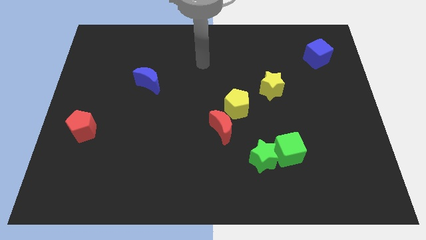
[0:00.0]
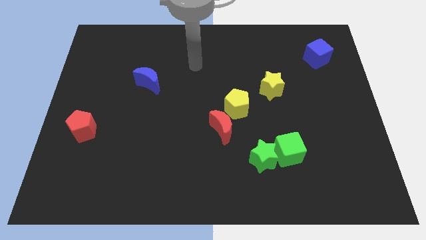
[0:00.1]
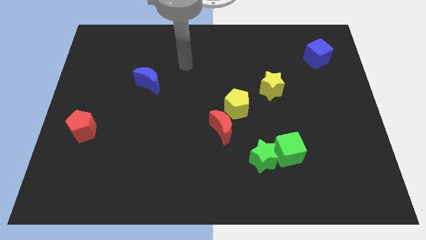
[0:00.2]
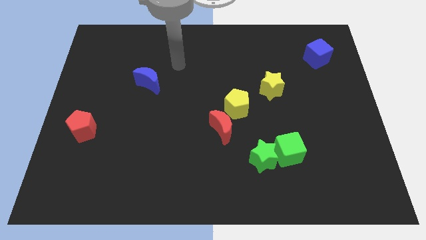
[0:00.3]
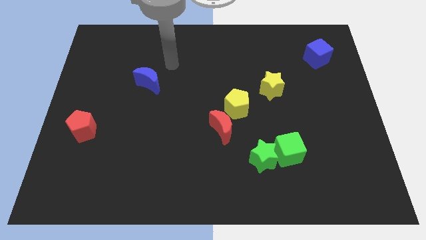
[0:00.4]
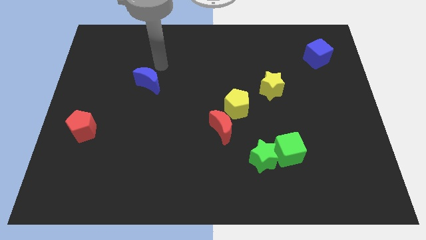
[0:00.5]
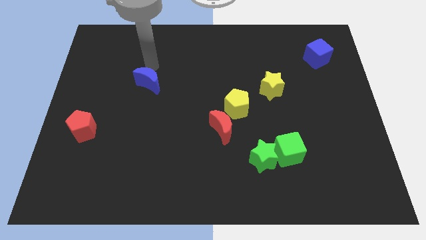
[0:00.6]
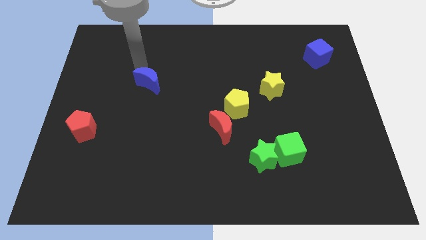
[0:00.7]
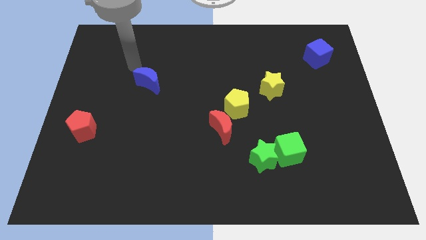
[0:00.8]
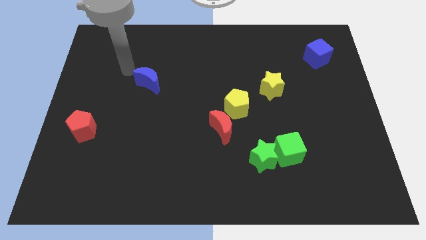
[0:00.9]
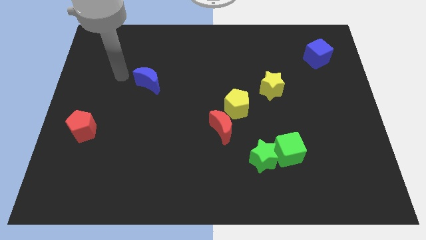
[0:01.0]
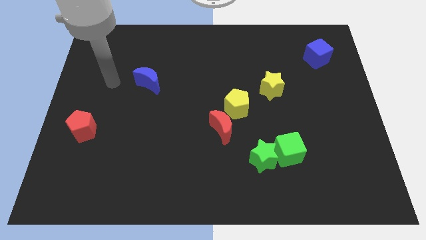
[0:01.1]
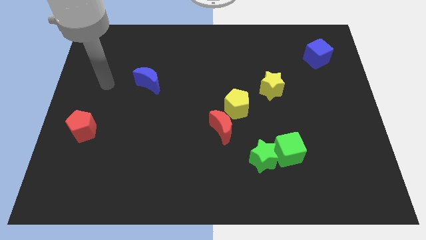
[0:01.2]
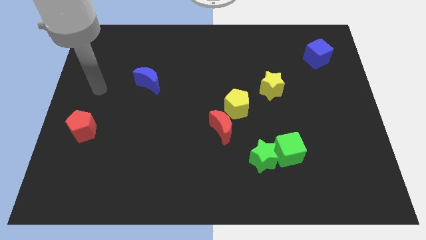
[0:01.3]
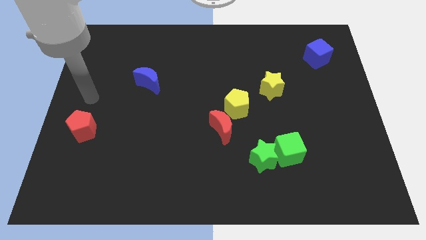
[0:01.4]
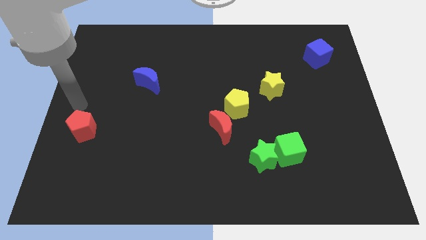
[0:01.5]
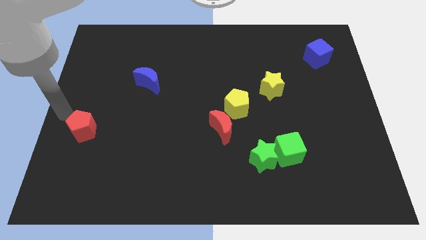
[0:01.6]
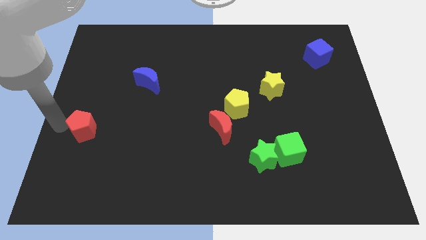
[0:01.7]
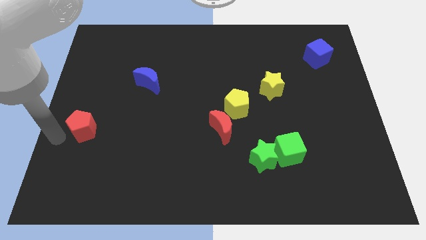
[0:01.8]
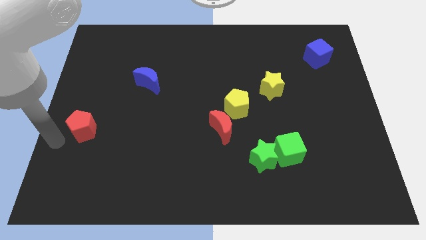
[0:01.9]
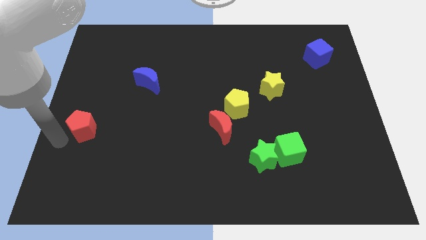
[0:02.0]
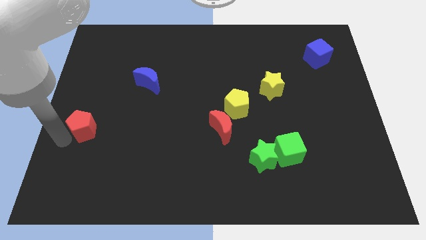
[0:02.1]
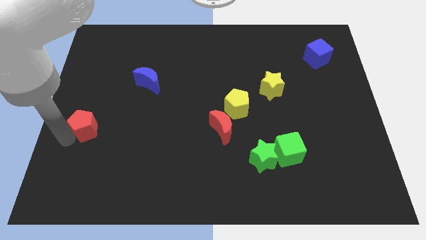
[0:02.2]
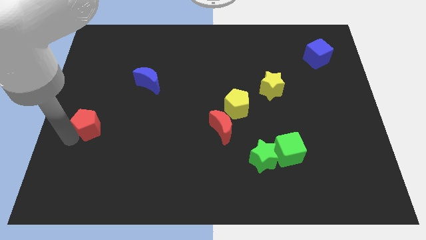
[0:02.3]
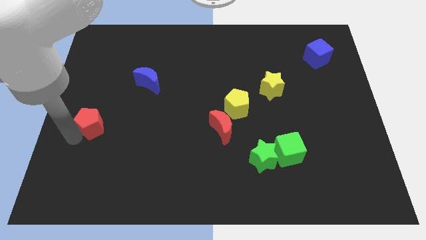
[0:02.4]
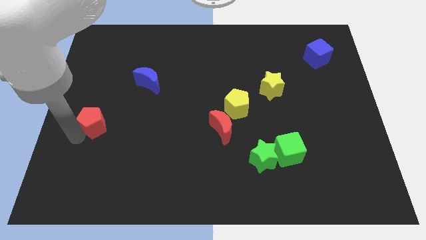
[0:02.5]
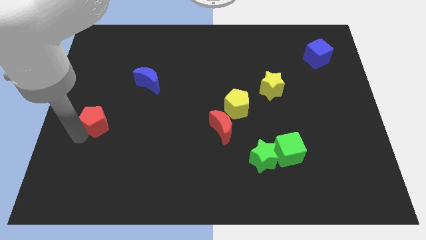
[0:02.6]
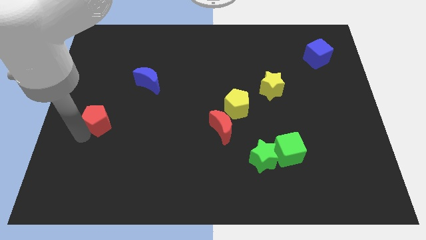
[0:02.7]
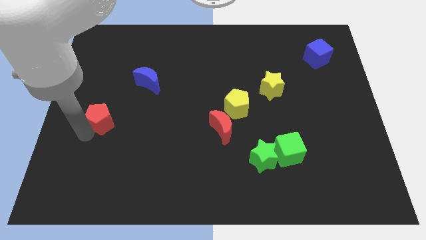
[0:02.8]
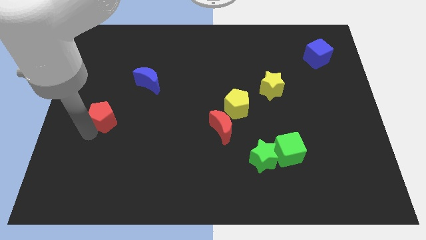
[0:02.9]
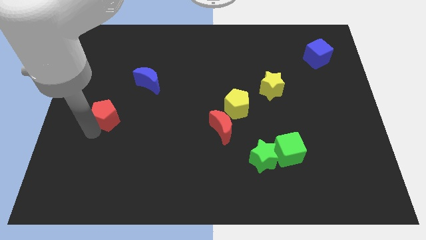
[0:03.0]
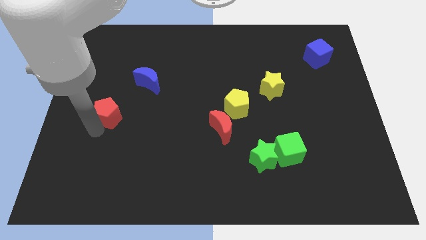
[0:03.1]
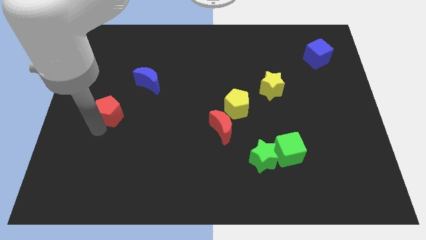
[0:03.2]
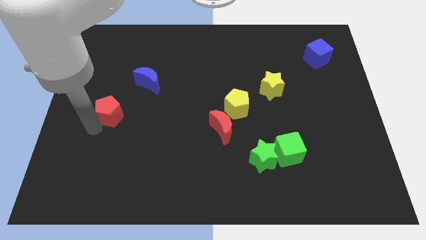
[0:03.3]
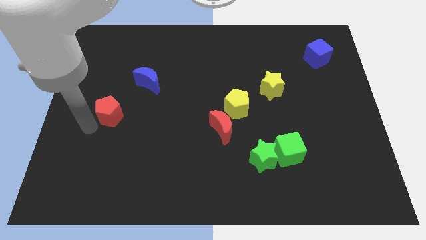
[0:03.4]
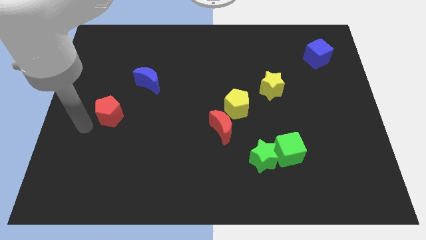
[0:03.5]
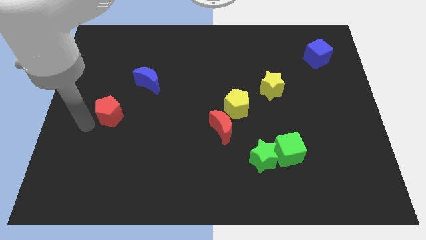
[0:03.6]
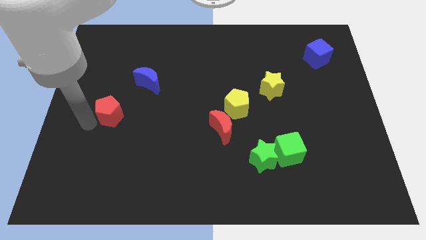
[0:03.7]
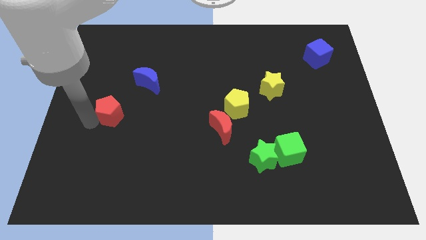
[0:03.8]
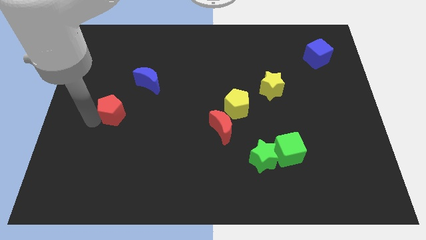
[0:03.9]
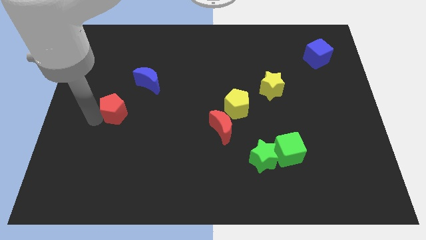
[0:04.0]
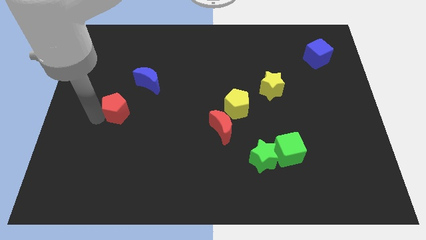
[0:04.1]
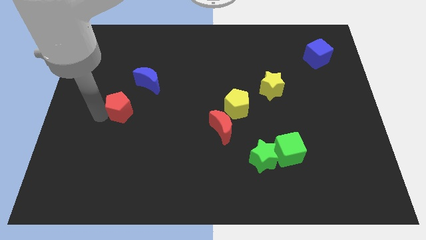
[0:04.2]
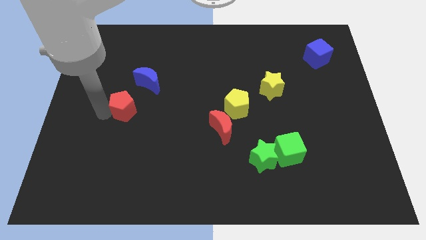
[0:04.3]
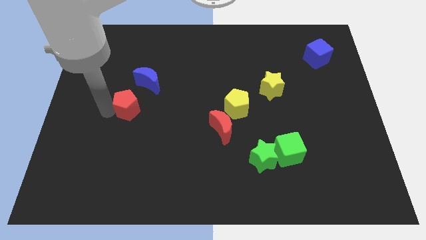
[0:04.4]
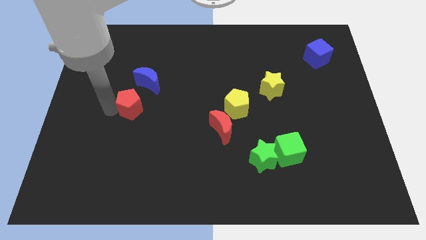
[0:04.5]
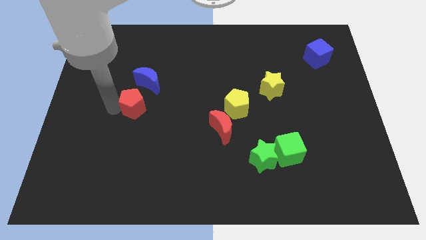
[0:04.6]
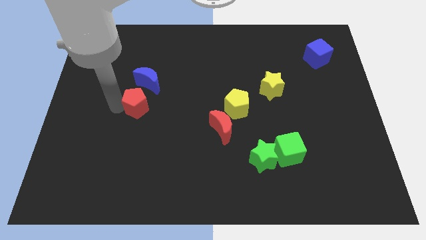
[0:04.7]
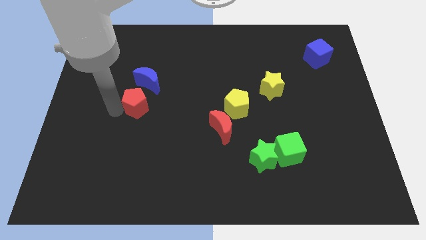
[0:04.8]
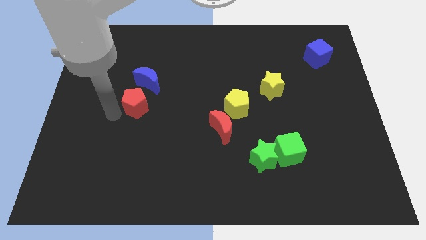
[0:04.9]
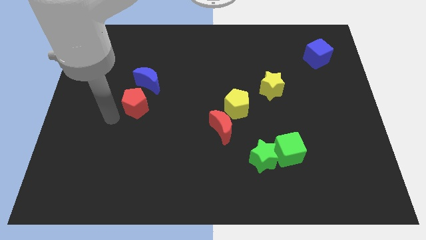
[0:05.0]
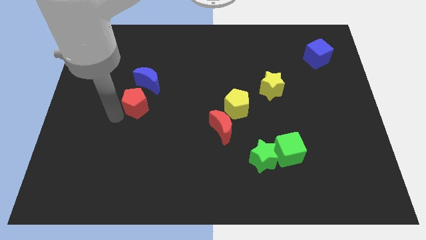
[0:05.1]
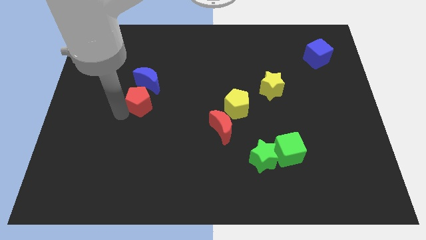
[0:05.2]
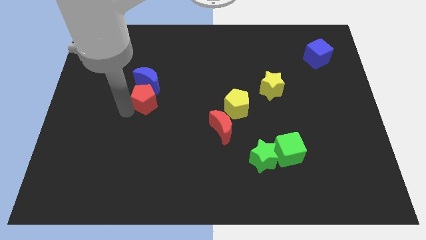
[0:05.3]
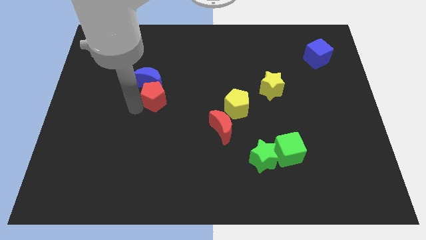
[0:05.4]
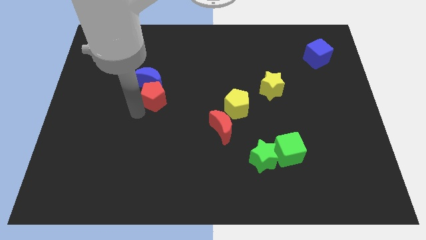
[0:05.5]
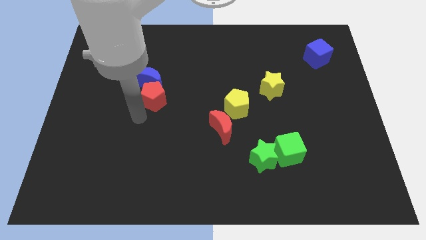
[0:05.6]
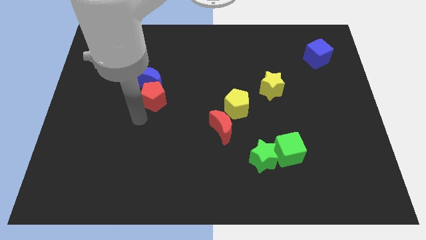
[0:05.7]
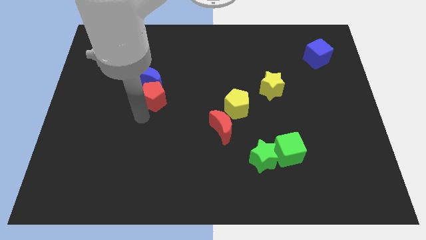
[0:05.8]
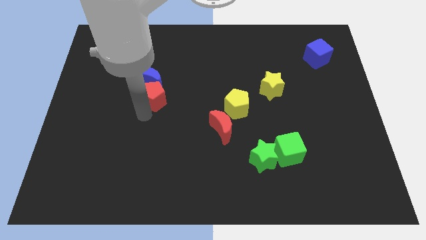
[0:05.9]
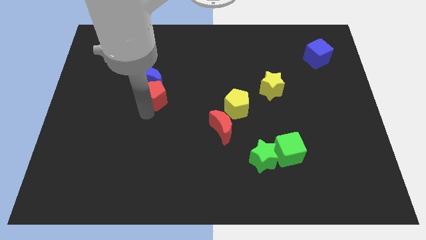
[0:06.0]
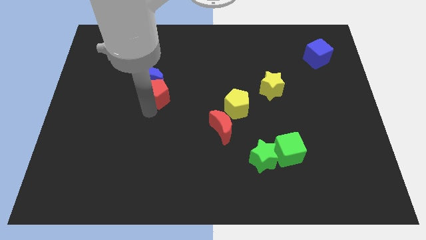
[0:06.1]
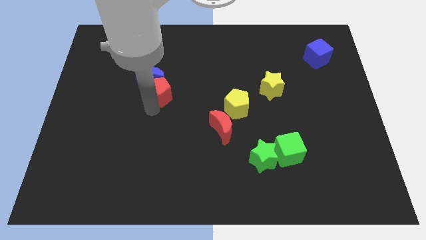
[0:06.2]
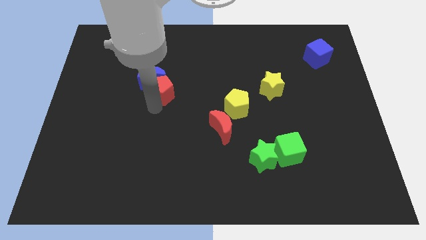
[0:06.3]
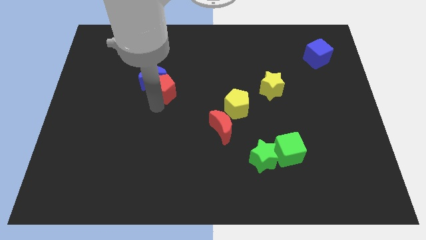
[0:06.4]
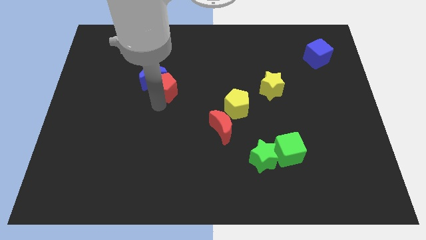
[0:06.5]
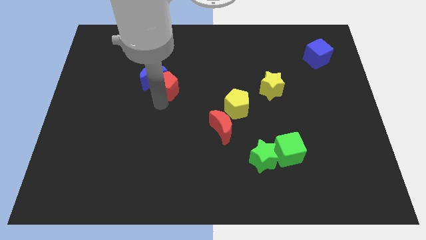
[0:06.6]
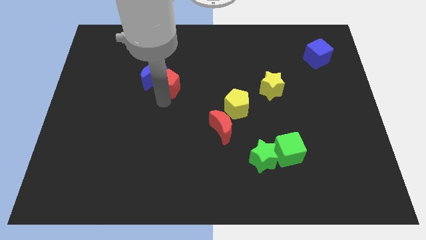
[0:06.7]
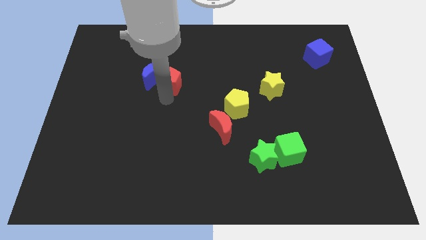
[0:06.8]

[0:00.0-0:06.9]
put the red pentagon to the top right side of the blue moon

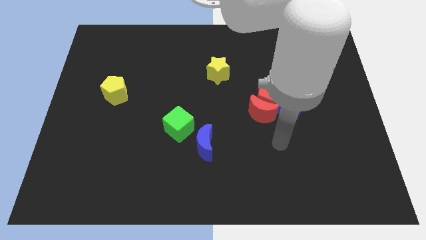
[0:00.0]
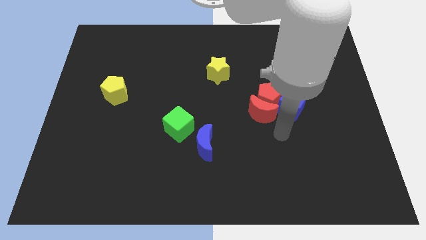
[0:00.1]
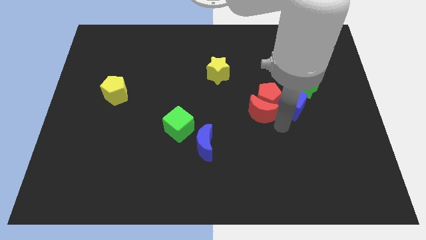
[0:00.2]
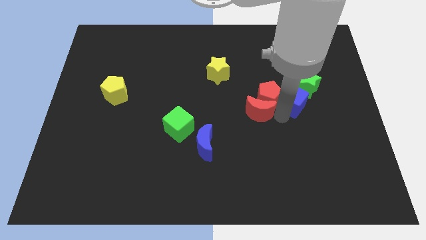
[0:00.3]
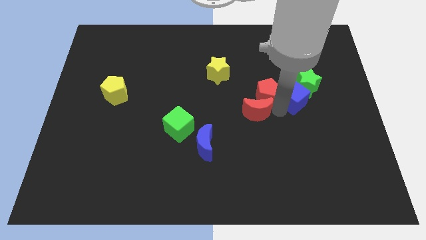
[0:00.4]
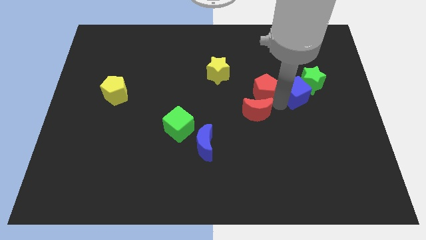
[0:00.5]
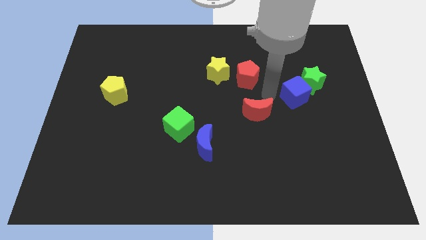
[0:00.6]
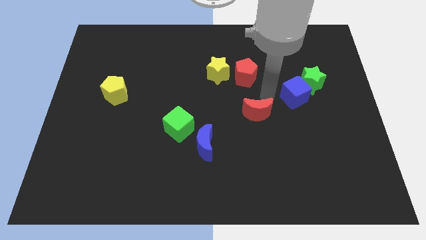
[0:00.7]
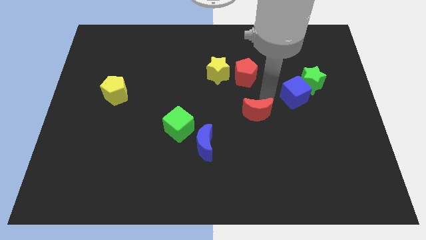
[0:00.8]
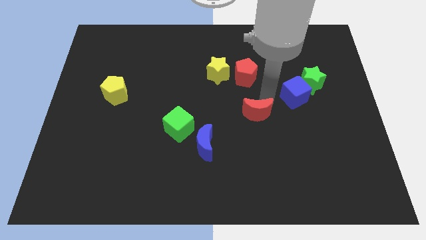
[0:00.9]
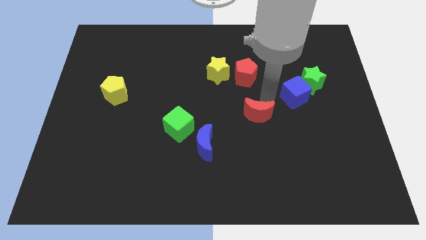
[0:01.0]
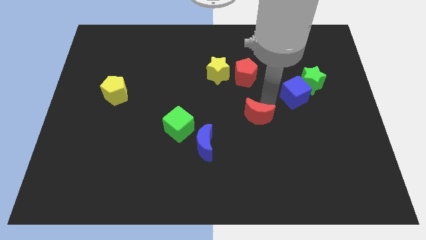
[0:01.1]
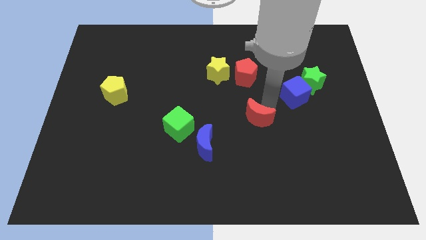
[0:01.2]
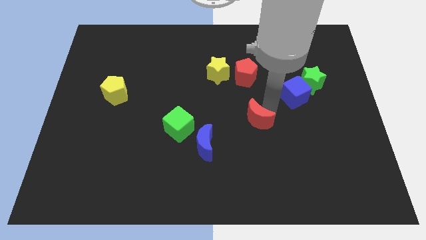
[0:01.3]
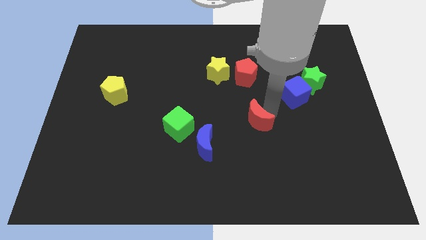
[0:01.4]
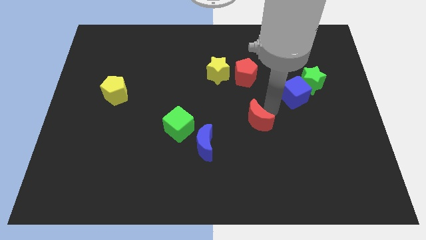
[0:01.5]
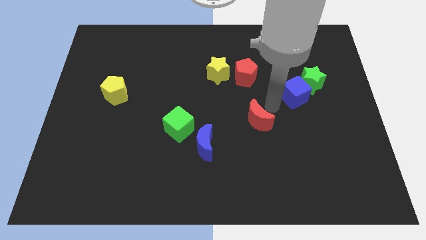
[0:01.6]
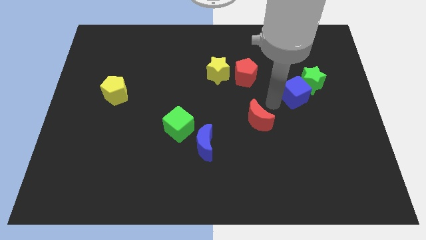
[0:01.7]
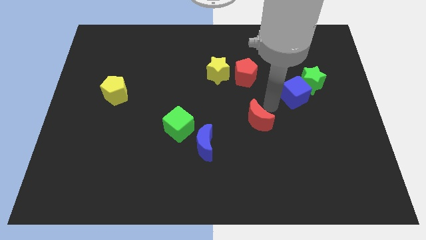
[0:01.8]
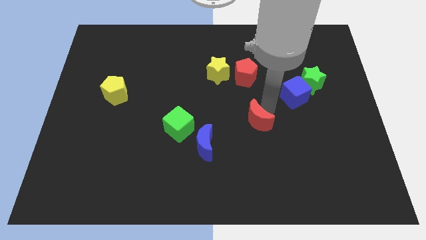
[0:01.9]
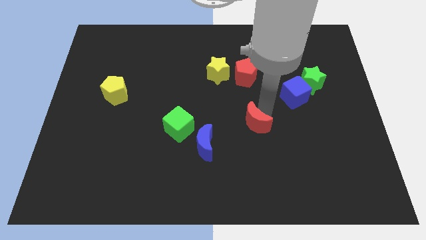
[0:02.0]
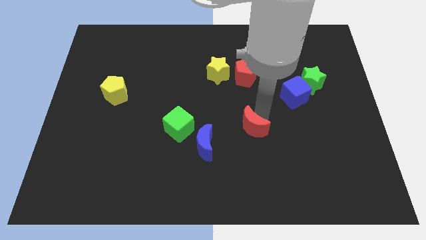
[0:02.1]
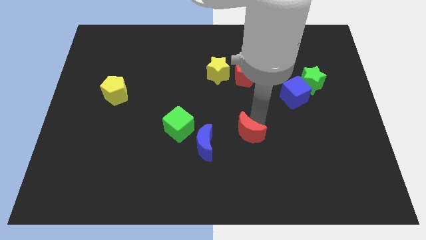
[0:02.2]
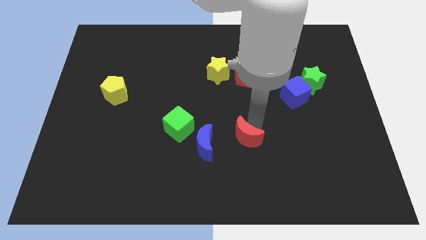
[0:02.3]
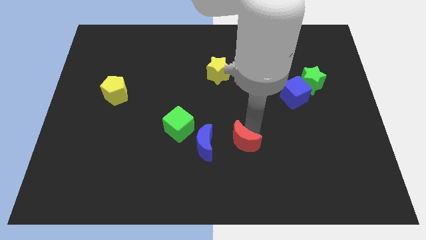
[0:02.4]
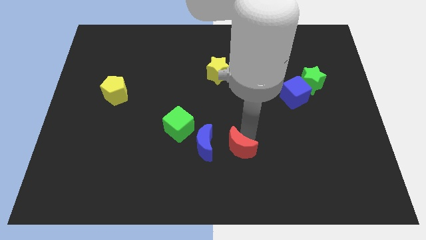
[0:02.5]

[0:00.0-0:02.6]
slide the red moon to the bottom right of the blue moon
